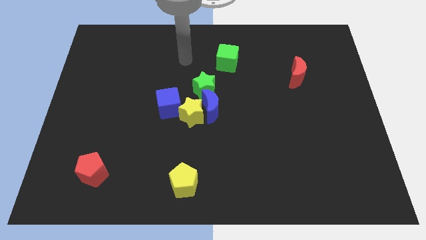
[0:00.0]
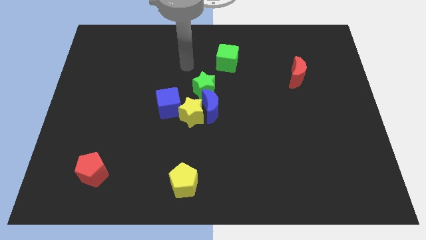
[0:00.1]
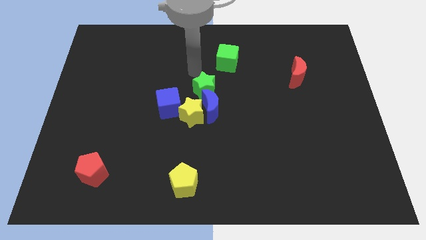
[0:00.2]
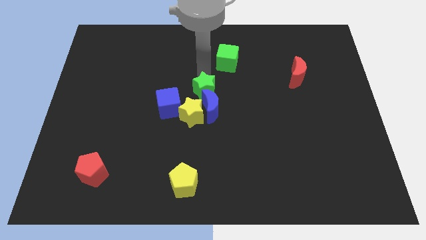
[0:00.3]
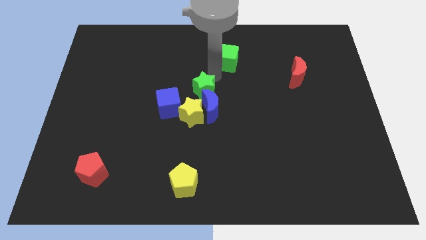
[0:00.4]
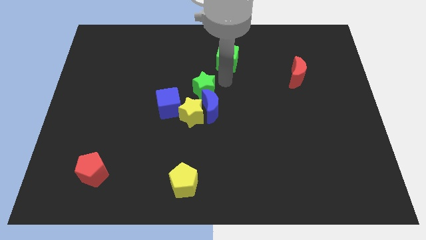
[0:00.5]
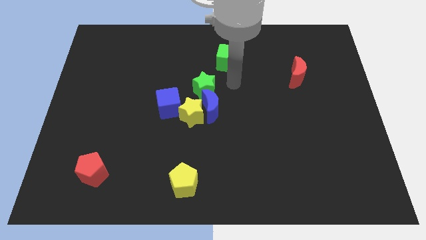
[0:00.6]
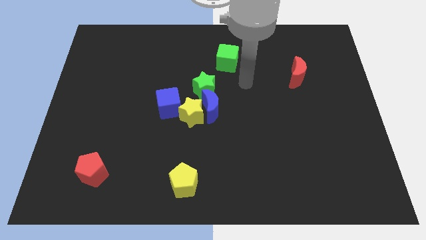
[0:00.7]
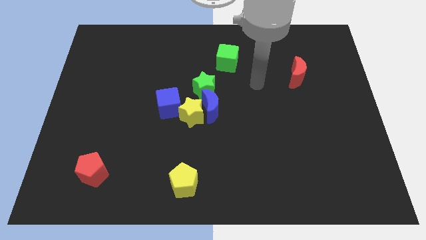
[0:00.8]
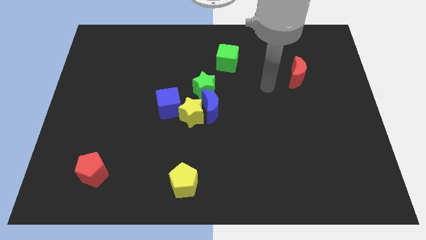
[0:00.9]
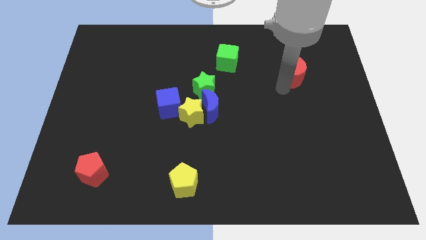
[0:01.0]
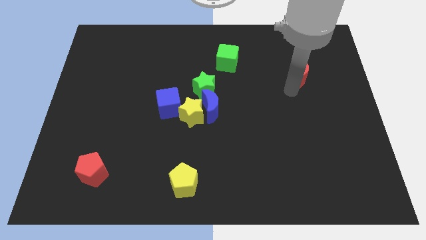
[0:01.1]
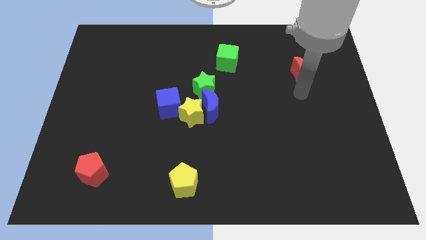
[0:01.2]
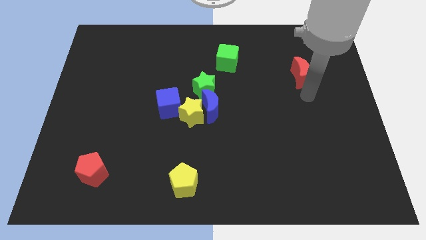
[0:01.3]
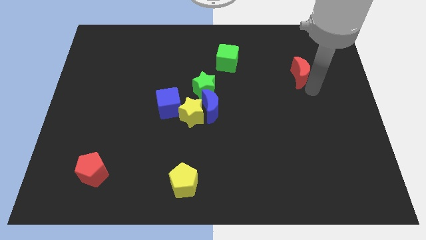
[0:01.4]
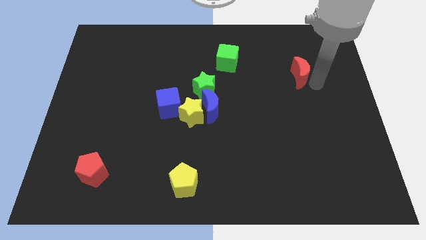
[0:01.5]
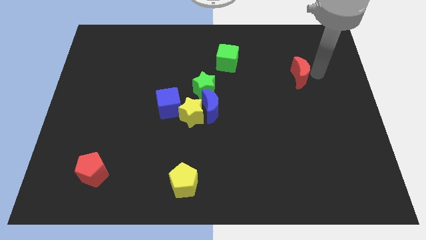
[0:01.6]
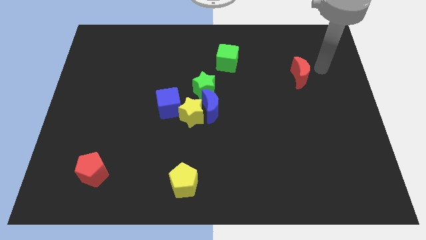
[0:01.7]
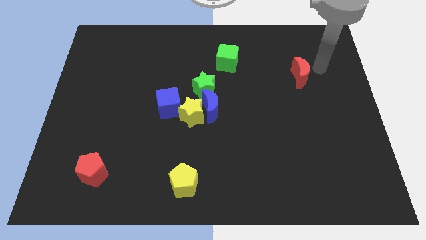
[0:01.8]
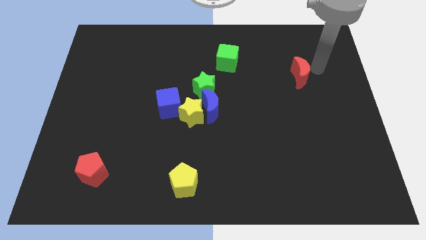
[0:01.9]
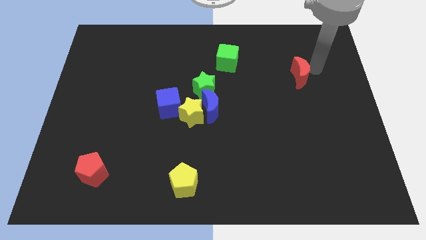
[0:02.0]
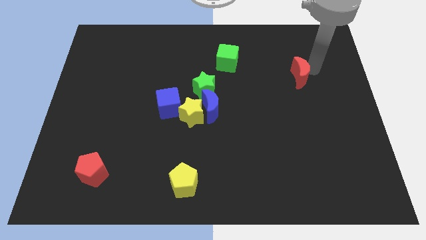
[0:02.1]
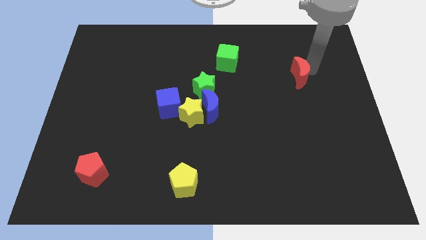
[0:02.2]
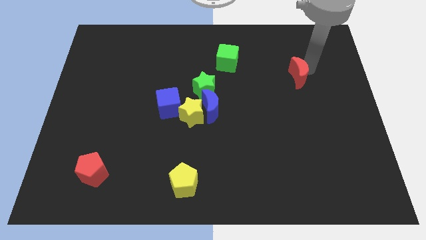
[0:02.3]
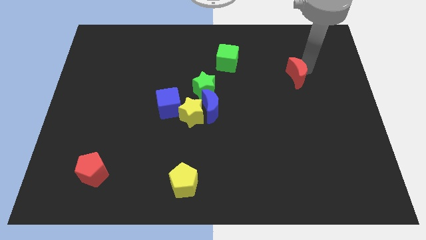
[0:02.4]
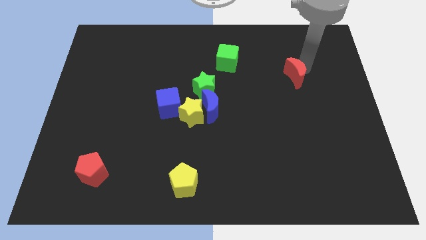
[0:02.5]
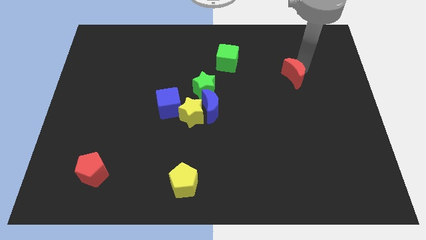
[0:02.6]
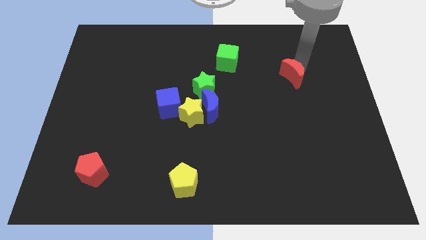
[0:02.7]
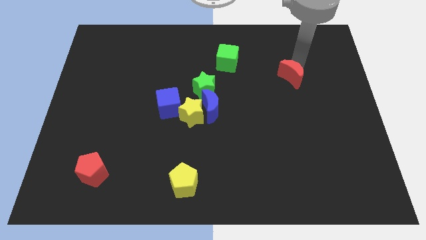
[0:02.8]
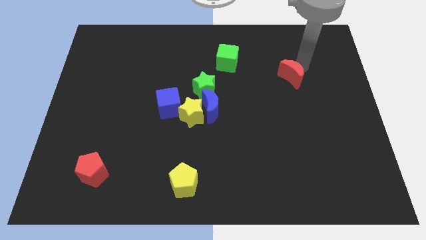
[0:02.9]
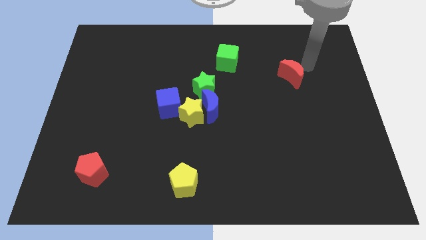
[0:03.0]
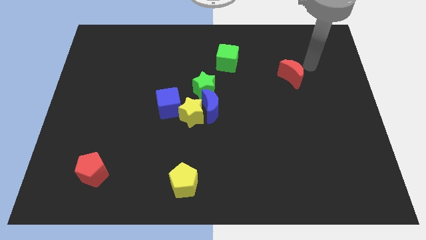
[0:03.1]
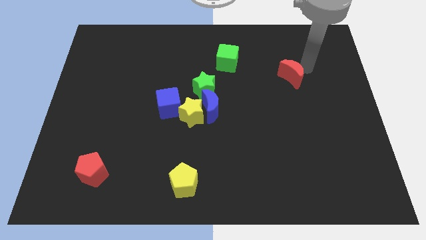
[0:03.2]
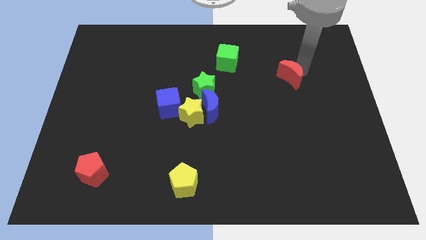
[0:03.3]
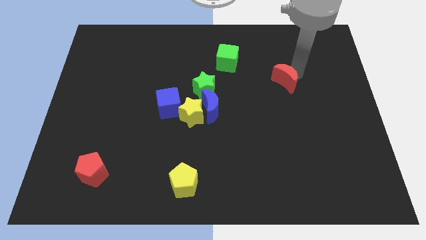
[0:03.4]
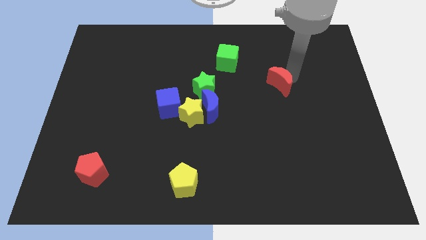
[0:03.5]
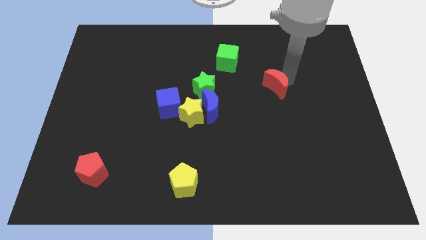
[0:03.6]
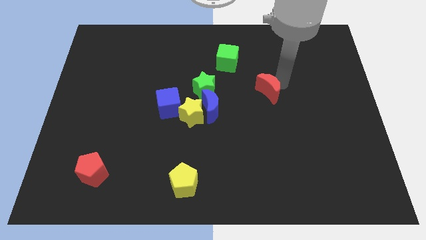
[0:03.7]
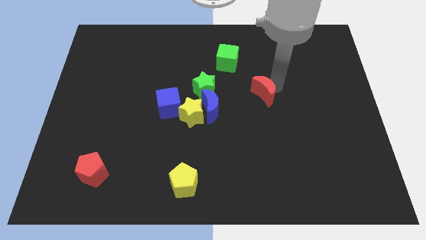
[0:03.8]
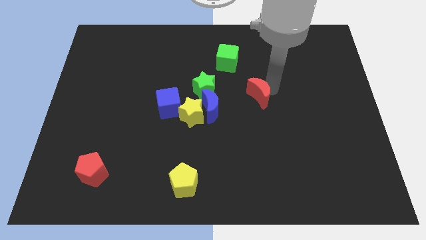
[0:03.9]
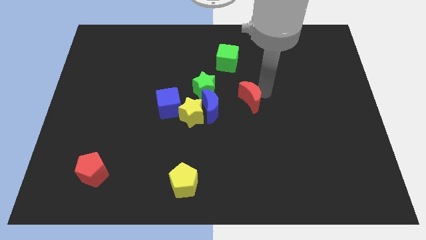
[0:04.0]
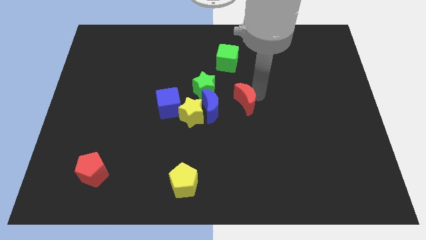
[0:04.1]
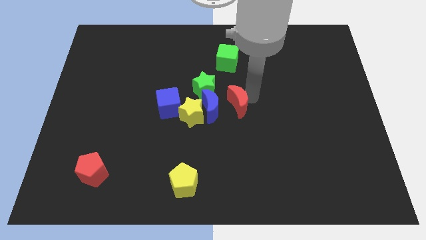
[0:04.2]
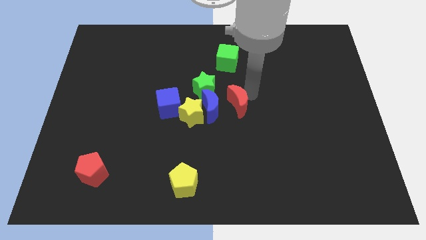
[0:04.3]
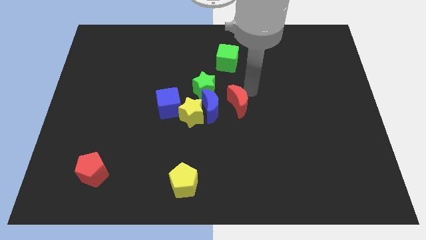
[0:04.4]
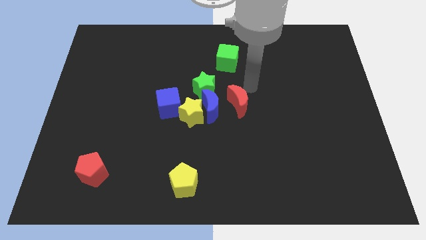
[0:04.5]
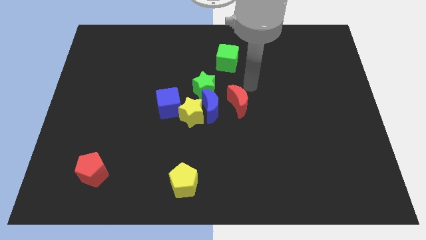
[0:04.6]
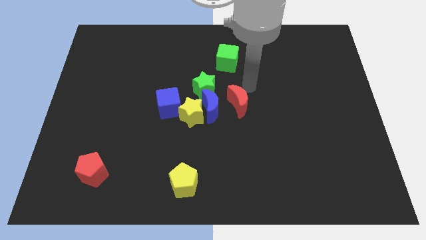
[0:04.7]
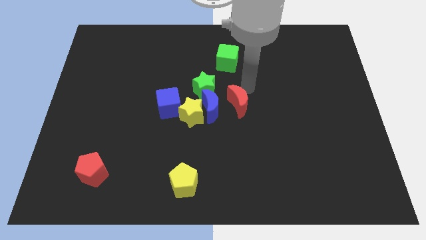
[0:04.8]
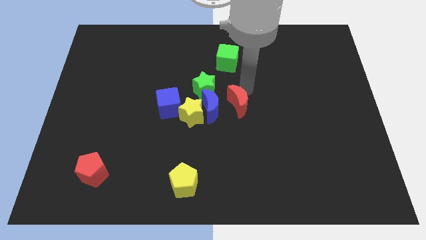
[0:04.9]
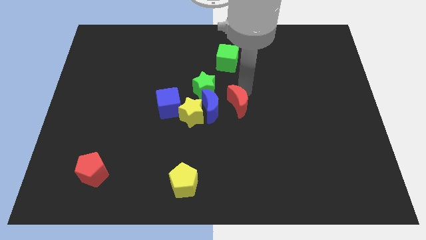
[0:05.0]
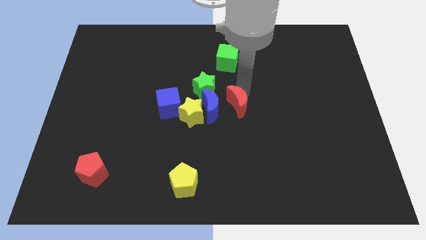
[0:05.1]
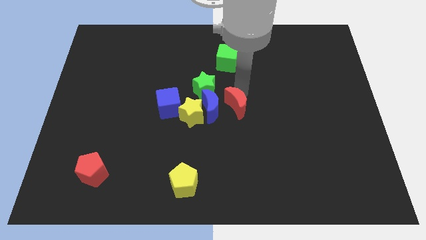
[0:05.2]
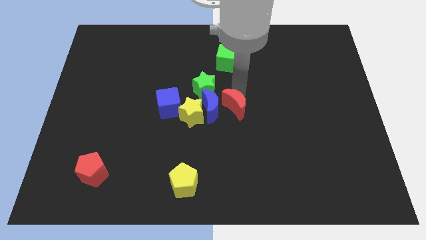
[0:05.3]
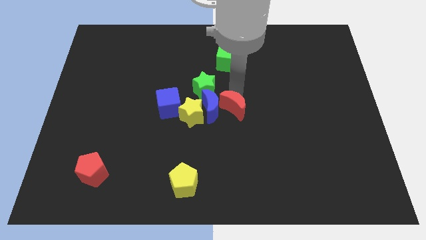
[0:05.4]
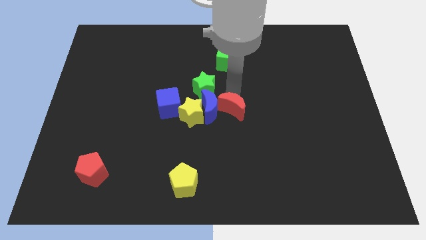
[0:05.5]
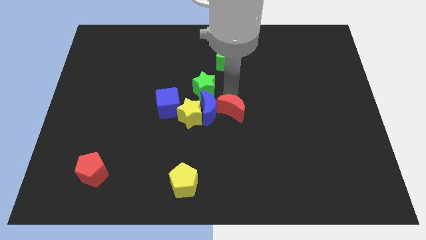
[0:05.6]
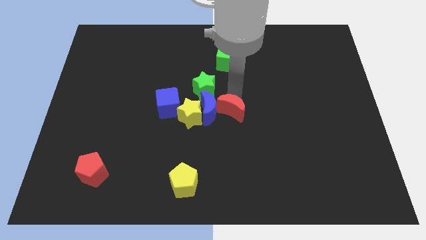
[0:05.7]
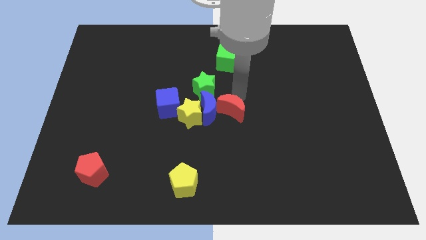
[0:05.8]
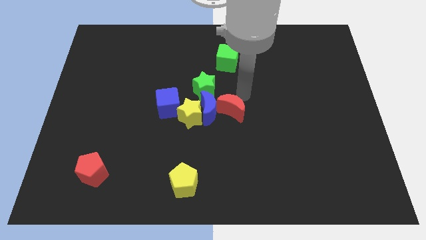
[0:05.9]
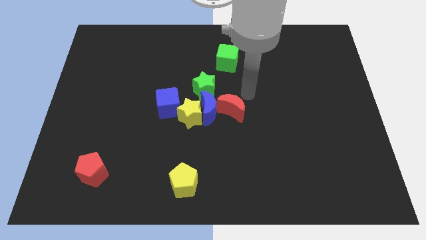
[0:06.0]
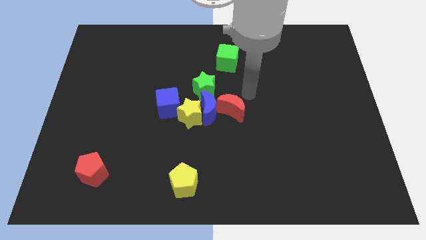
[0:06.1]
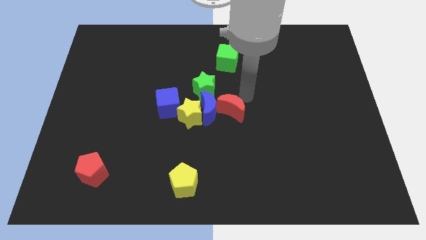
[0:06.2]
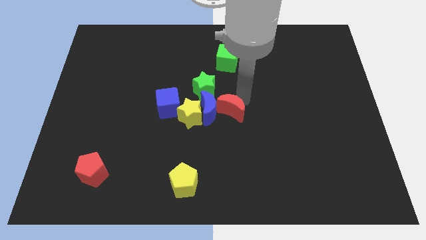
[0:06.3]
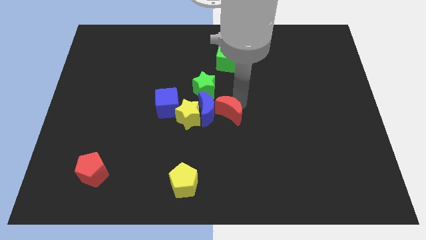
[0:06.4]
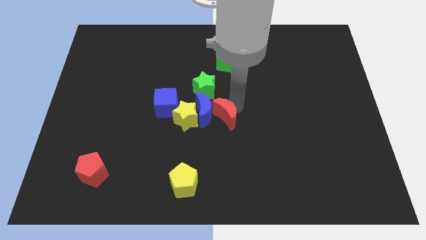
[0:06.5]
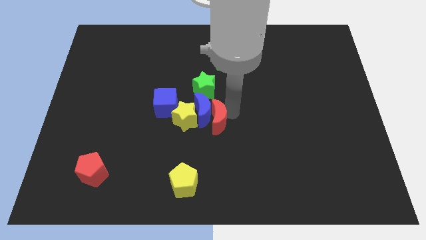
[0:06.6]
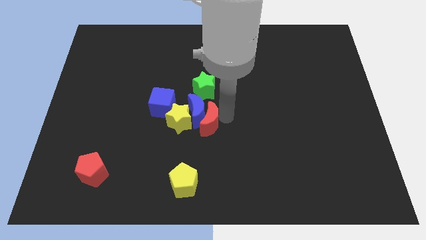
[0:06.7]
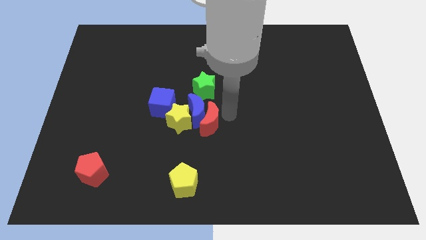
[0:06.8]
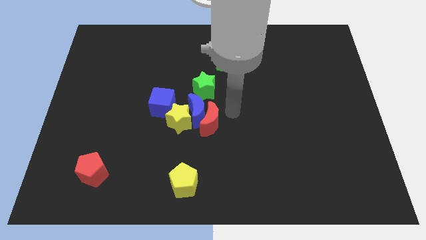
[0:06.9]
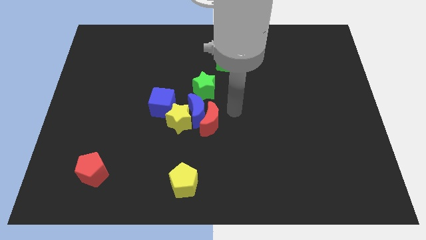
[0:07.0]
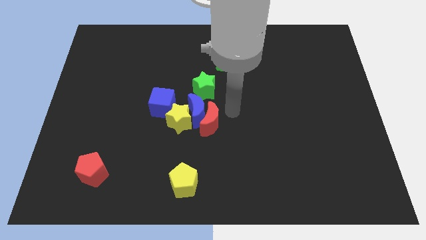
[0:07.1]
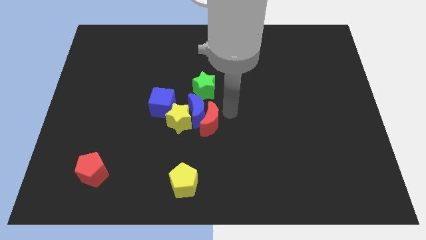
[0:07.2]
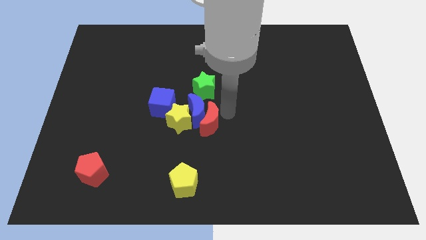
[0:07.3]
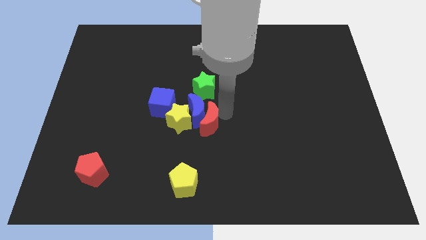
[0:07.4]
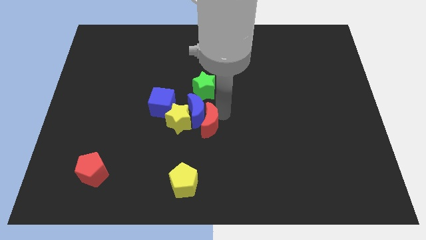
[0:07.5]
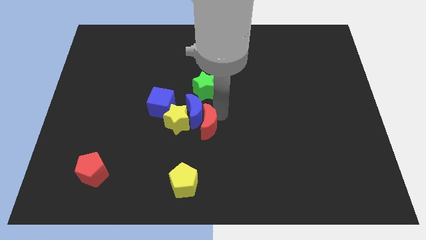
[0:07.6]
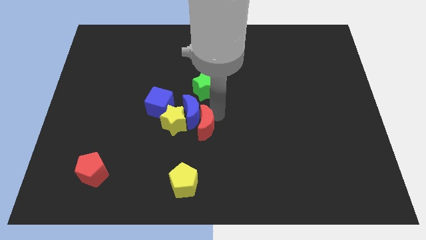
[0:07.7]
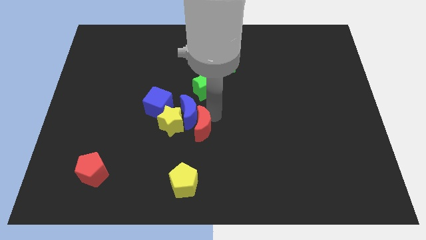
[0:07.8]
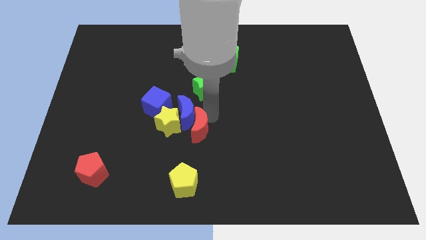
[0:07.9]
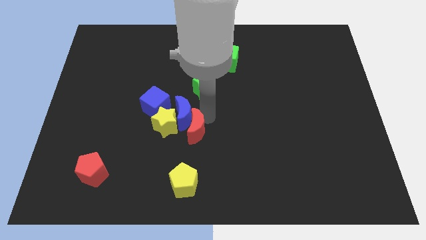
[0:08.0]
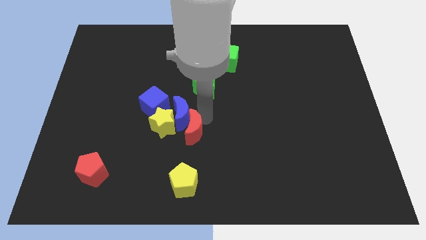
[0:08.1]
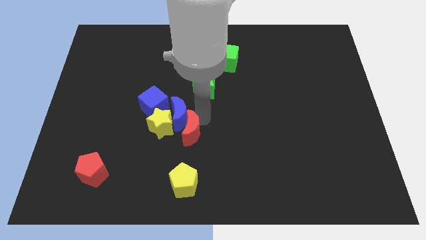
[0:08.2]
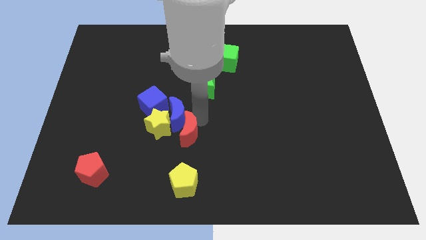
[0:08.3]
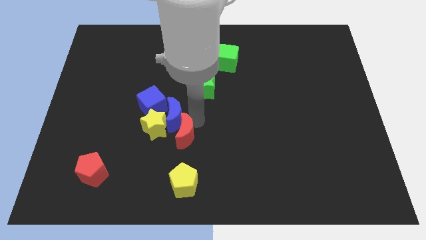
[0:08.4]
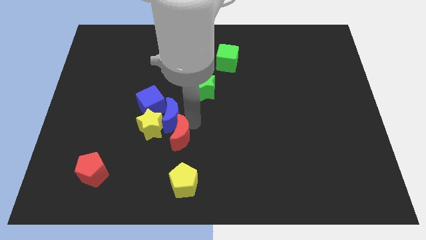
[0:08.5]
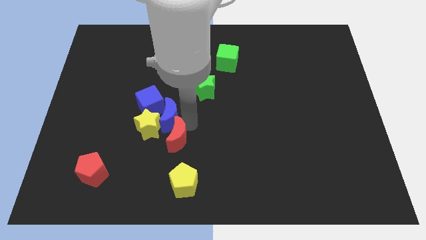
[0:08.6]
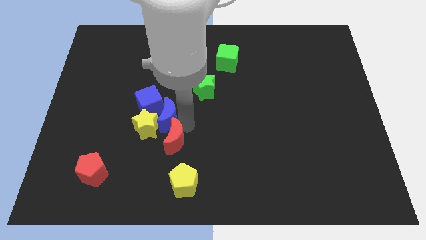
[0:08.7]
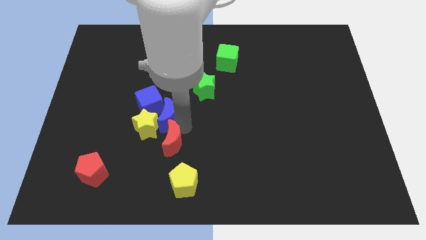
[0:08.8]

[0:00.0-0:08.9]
put the red moon to the top left side of the yellow pentagon
